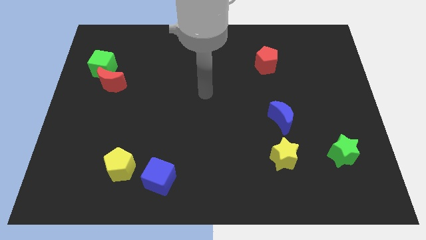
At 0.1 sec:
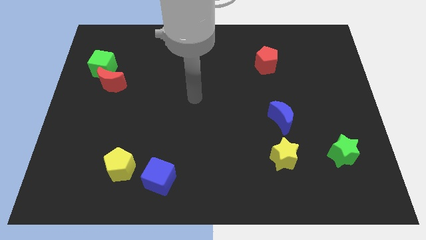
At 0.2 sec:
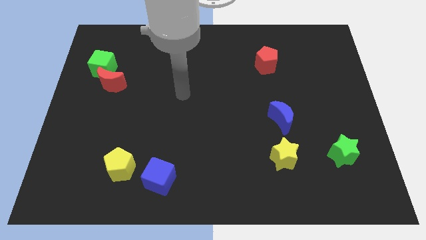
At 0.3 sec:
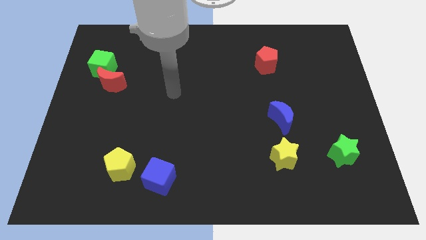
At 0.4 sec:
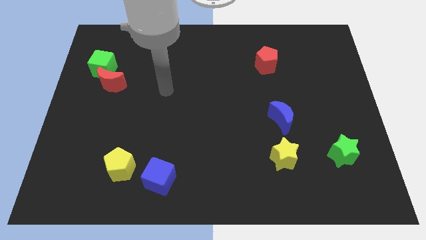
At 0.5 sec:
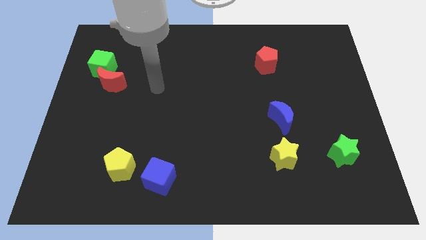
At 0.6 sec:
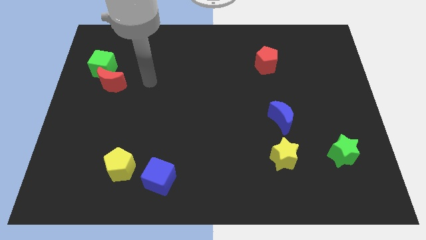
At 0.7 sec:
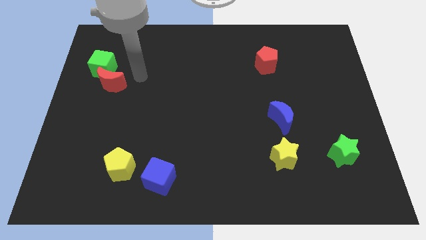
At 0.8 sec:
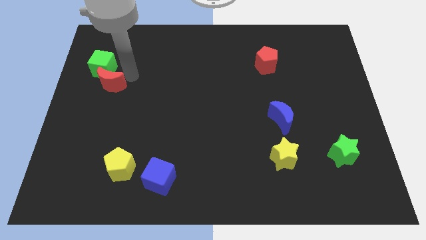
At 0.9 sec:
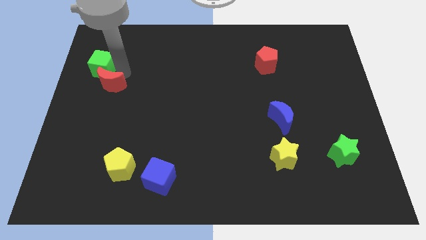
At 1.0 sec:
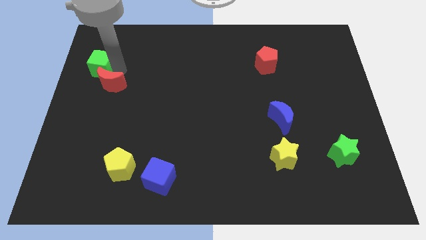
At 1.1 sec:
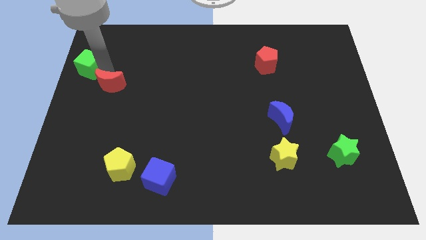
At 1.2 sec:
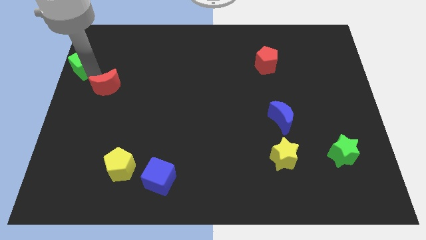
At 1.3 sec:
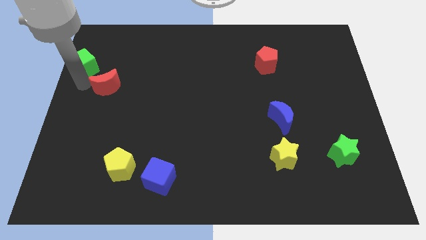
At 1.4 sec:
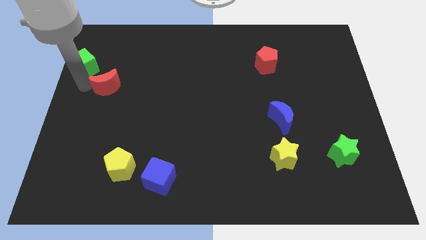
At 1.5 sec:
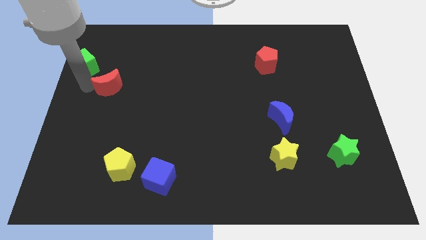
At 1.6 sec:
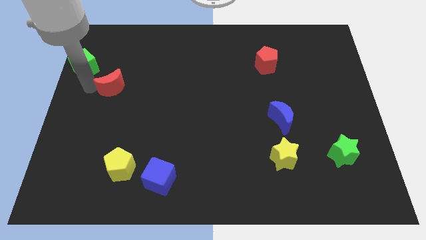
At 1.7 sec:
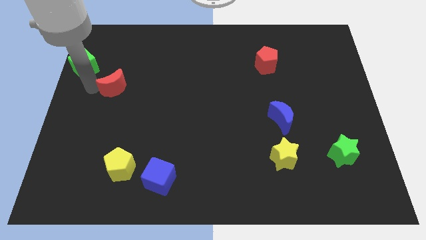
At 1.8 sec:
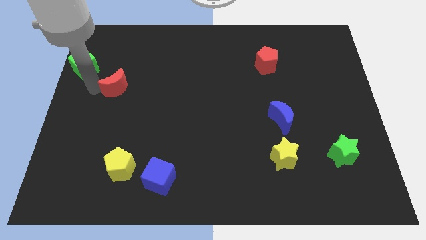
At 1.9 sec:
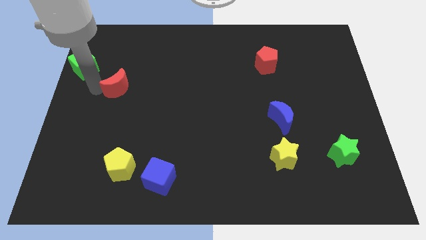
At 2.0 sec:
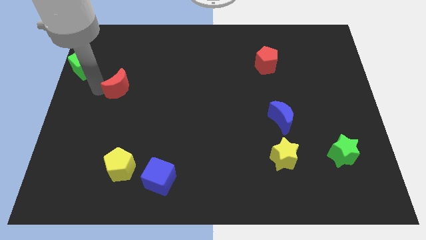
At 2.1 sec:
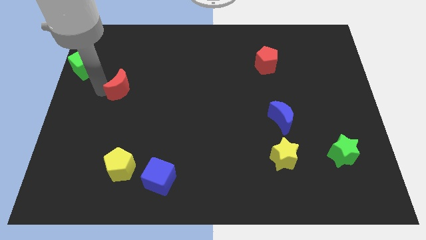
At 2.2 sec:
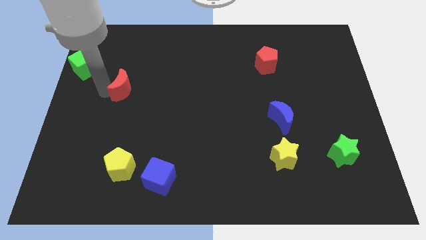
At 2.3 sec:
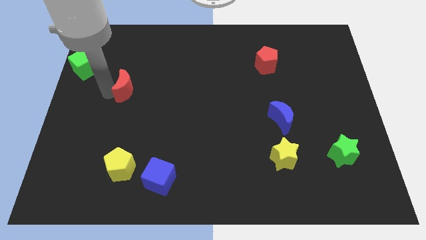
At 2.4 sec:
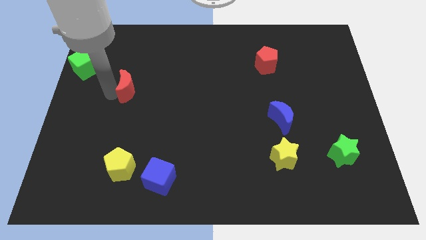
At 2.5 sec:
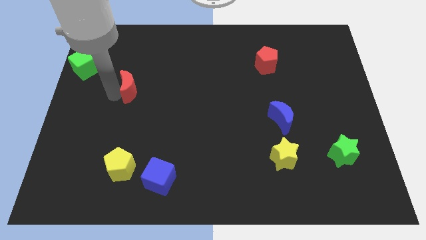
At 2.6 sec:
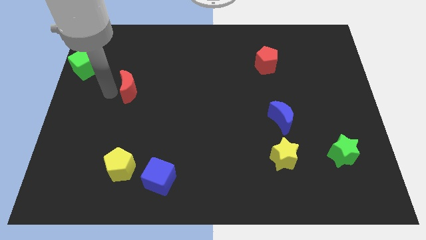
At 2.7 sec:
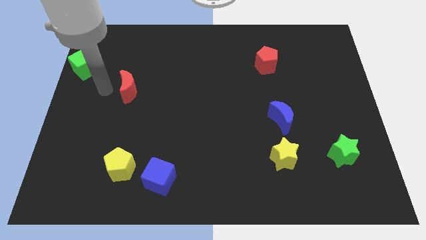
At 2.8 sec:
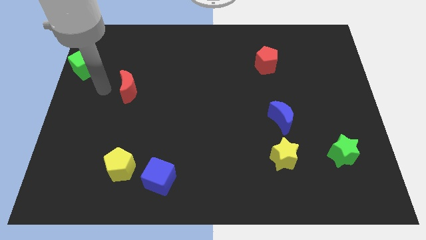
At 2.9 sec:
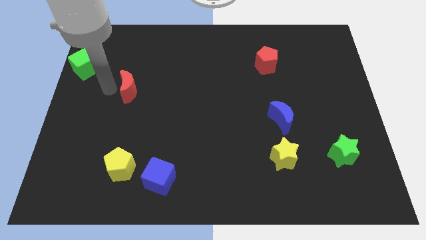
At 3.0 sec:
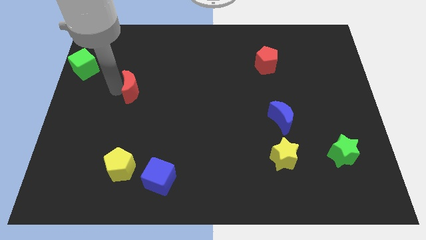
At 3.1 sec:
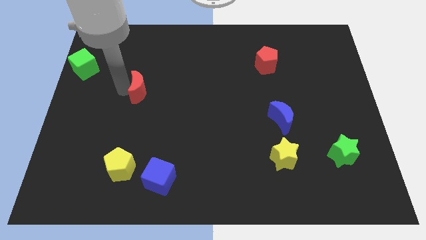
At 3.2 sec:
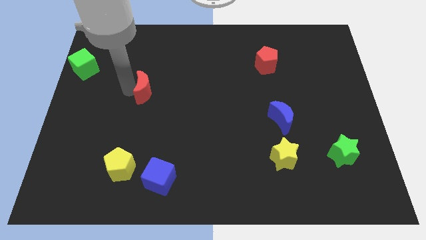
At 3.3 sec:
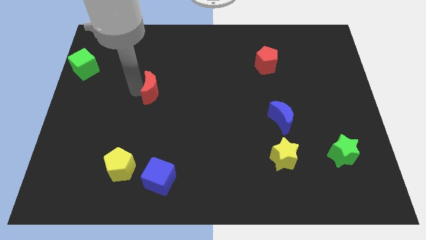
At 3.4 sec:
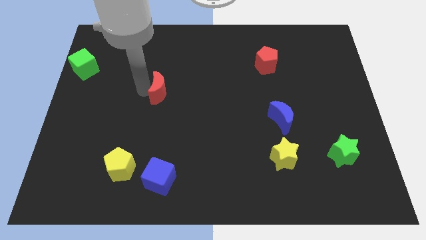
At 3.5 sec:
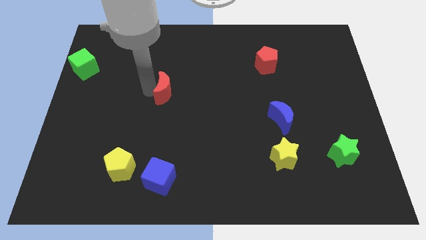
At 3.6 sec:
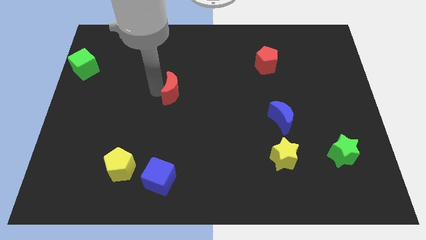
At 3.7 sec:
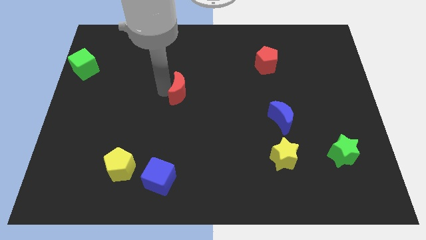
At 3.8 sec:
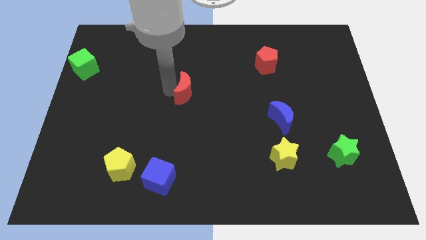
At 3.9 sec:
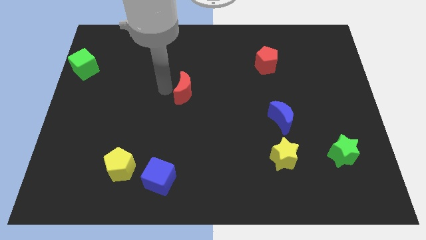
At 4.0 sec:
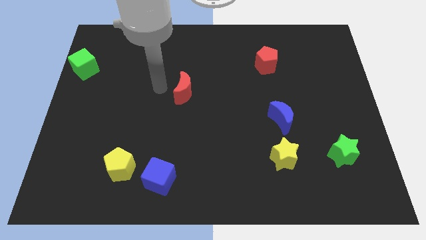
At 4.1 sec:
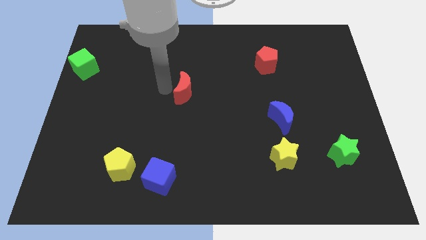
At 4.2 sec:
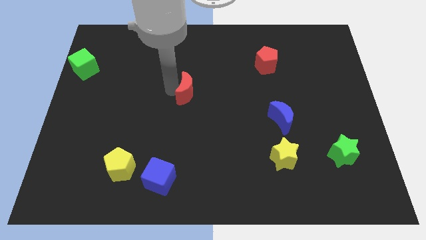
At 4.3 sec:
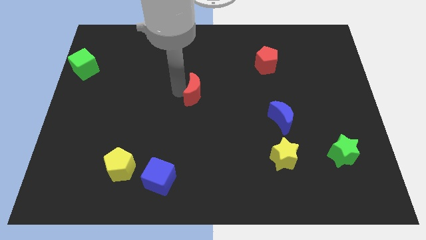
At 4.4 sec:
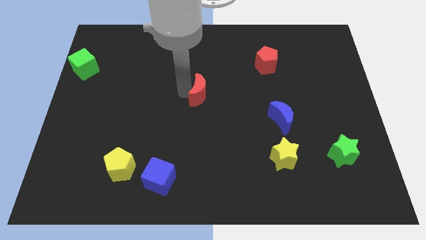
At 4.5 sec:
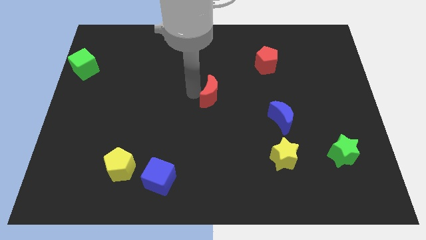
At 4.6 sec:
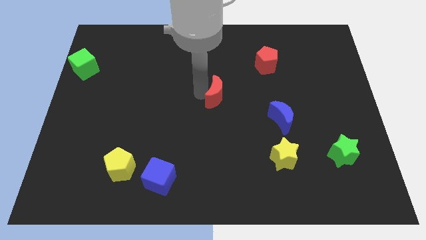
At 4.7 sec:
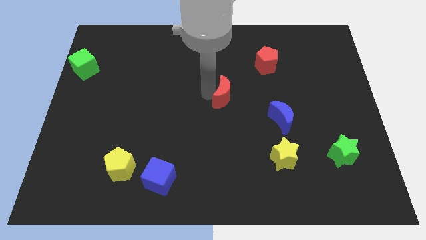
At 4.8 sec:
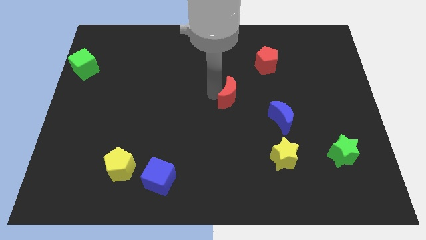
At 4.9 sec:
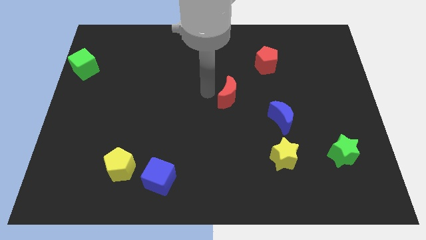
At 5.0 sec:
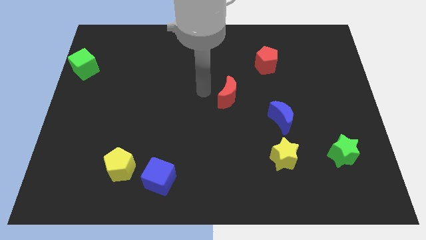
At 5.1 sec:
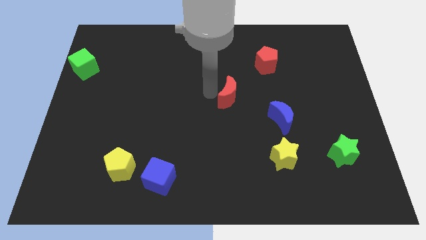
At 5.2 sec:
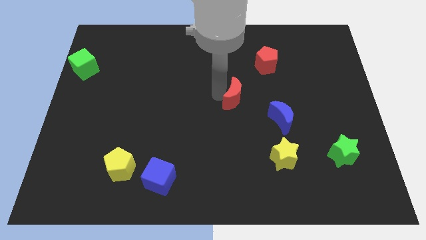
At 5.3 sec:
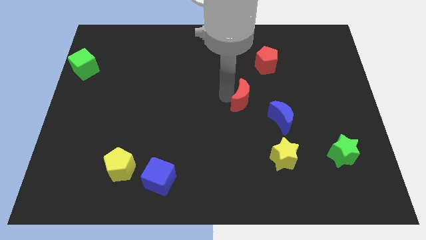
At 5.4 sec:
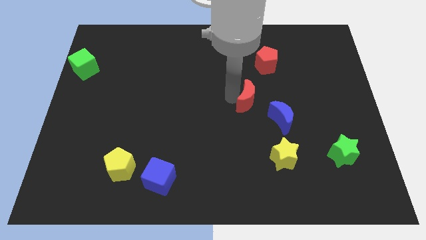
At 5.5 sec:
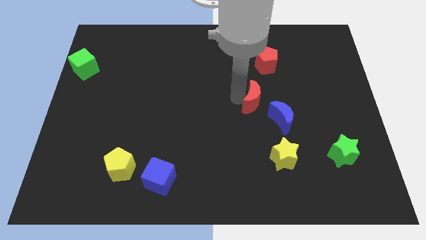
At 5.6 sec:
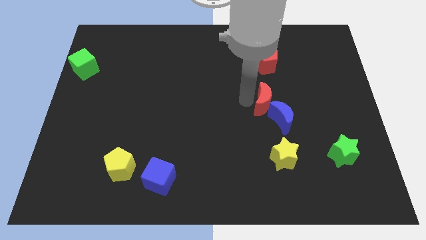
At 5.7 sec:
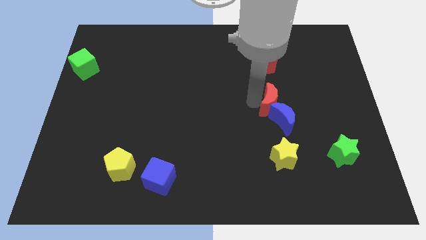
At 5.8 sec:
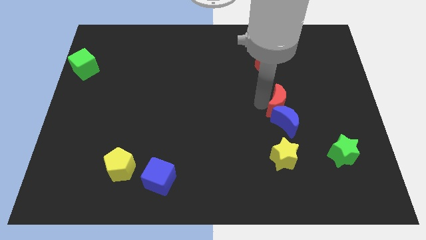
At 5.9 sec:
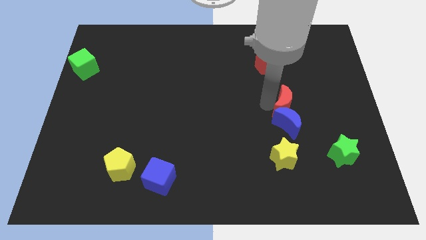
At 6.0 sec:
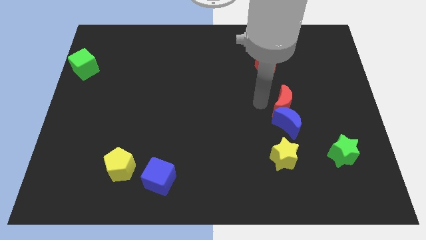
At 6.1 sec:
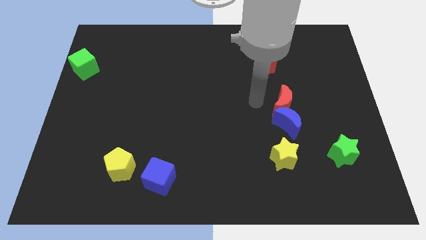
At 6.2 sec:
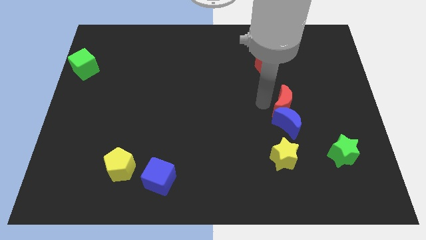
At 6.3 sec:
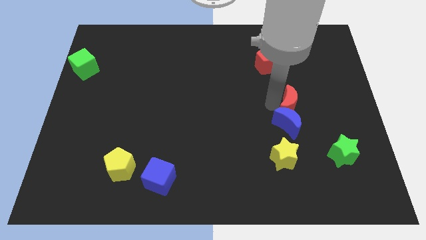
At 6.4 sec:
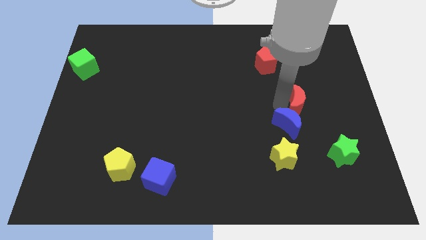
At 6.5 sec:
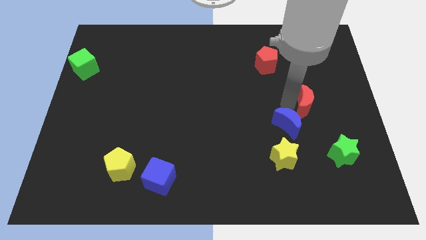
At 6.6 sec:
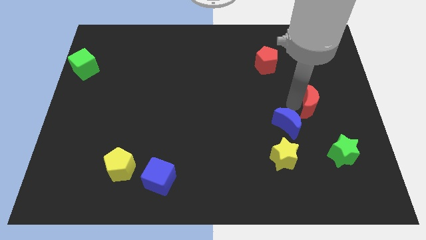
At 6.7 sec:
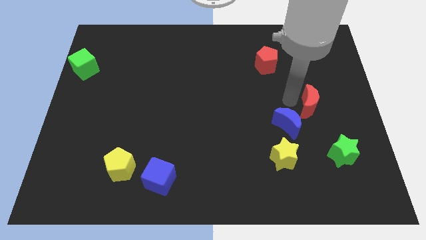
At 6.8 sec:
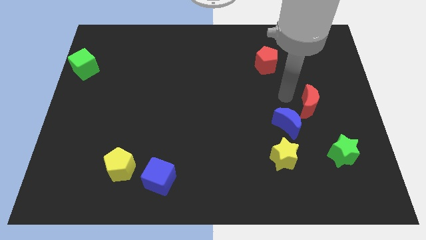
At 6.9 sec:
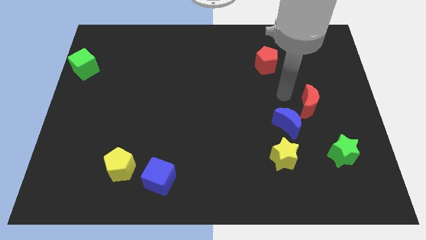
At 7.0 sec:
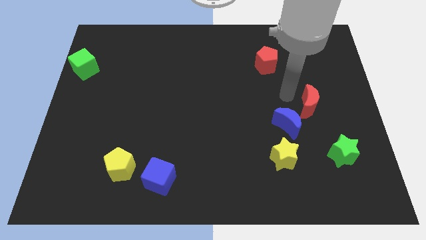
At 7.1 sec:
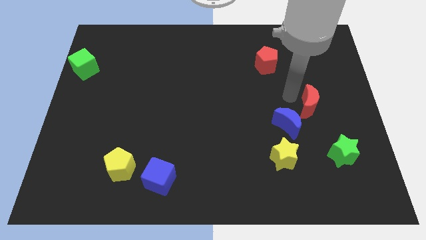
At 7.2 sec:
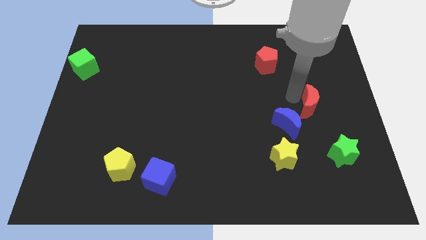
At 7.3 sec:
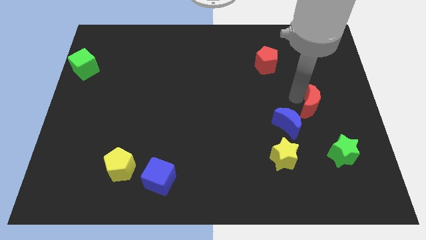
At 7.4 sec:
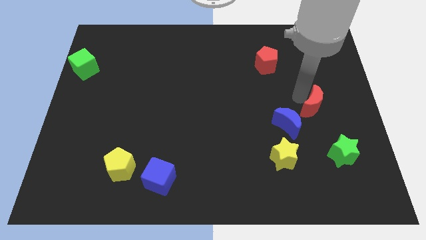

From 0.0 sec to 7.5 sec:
put the red moon above the green star
